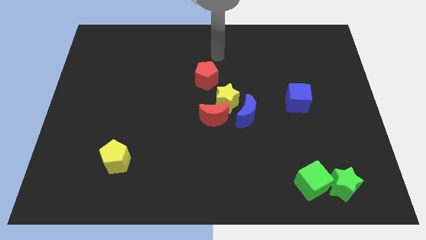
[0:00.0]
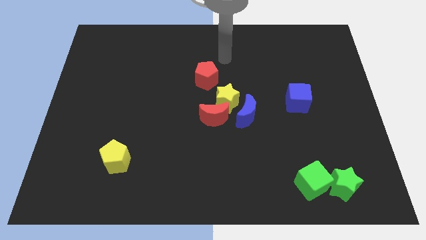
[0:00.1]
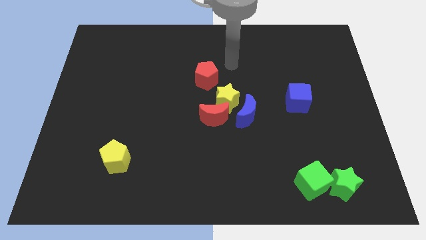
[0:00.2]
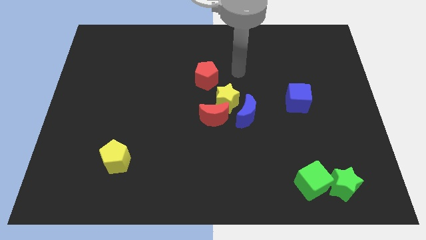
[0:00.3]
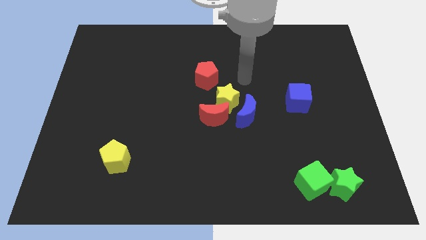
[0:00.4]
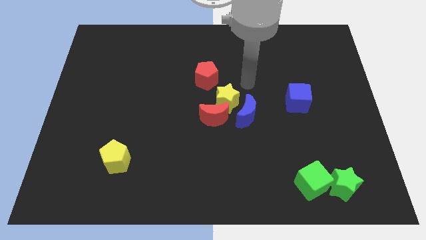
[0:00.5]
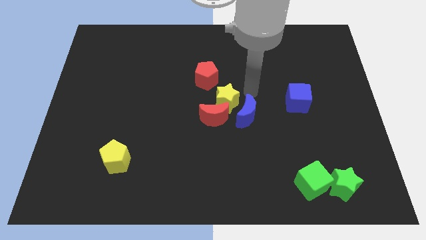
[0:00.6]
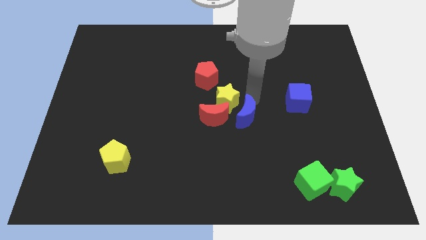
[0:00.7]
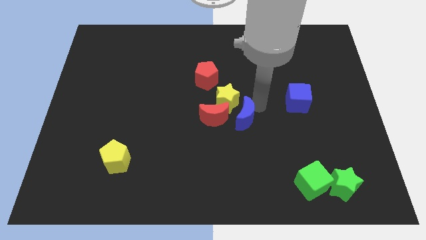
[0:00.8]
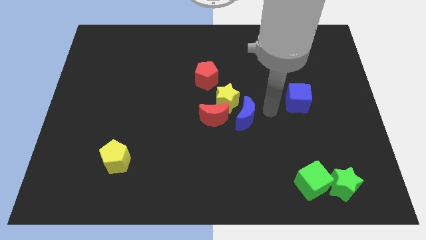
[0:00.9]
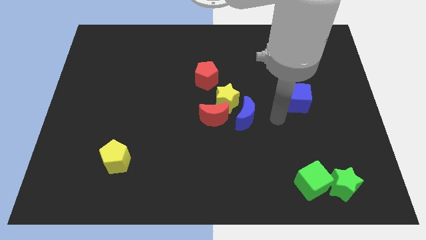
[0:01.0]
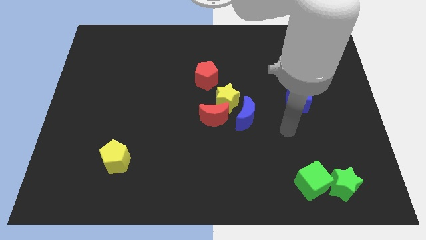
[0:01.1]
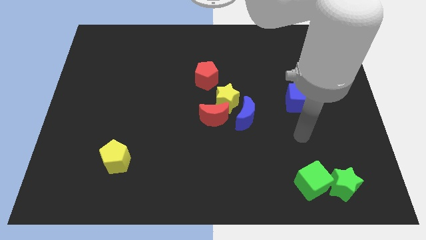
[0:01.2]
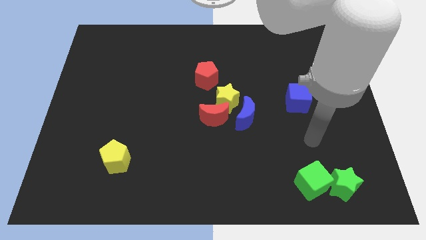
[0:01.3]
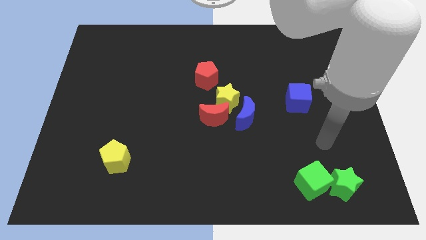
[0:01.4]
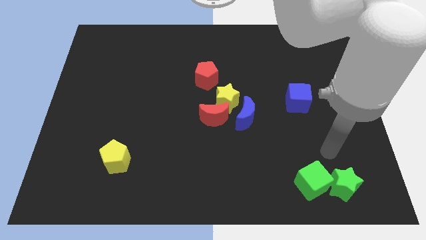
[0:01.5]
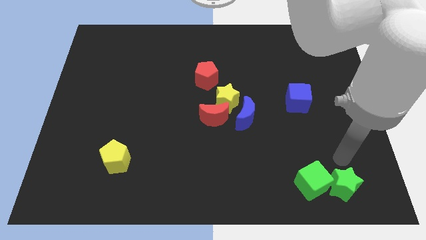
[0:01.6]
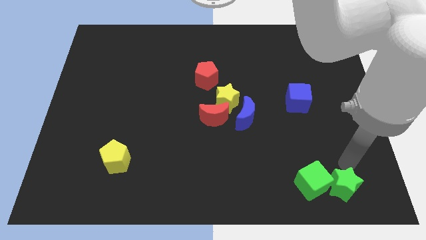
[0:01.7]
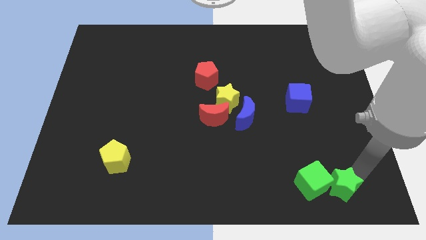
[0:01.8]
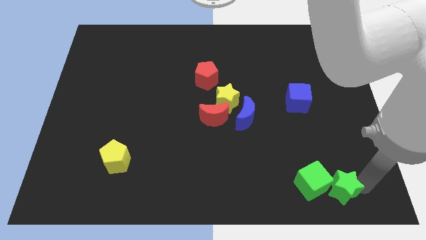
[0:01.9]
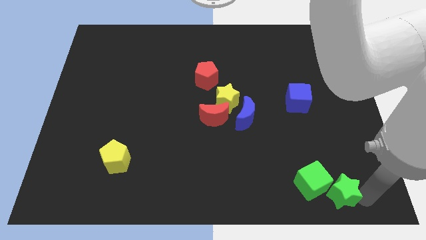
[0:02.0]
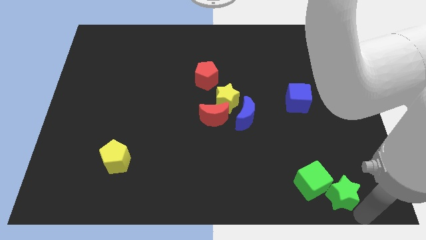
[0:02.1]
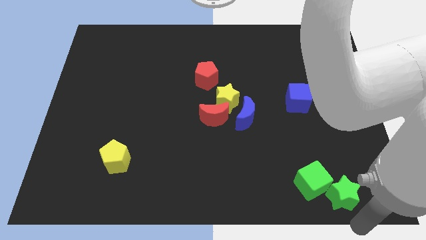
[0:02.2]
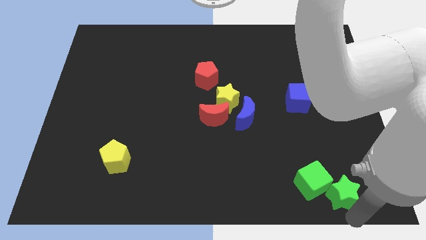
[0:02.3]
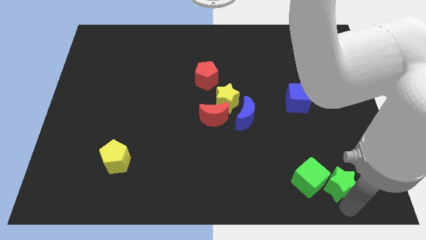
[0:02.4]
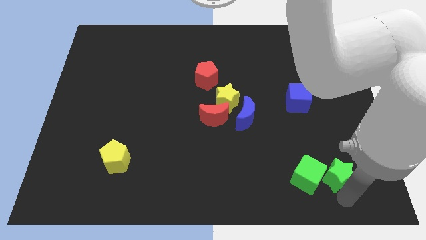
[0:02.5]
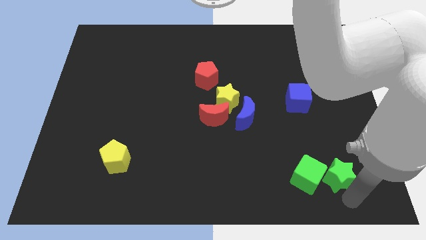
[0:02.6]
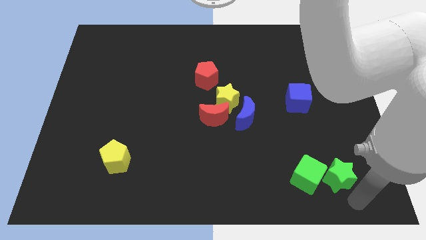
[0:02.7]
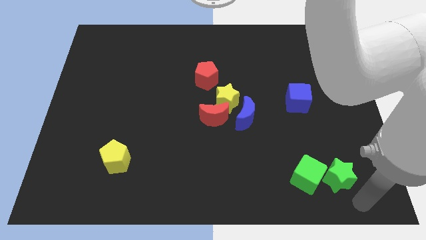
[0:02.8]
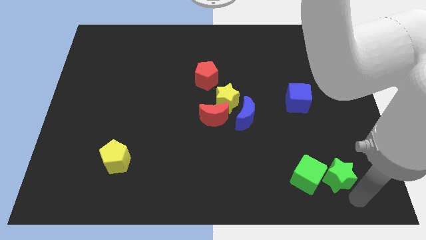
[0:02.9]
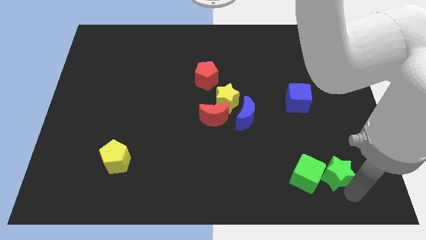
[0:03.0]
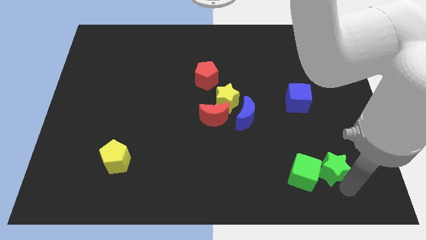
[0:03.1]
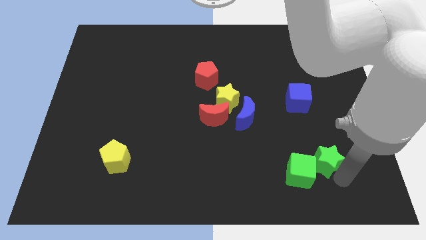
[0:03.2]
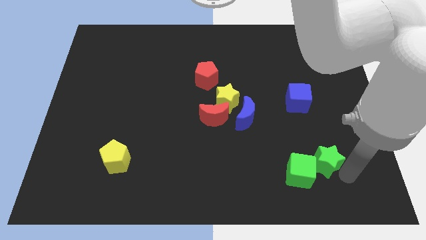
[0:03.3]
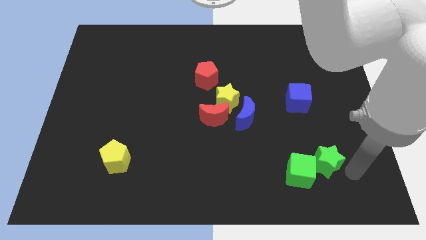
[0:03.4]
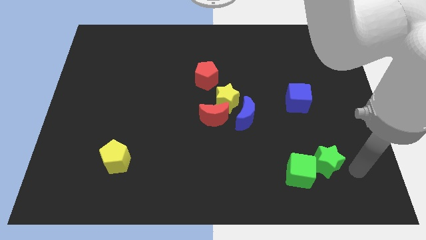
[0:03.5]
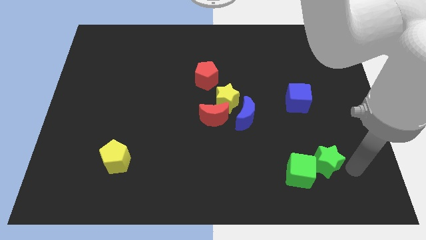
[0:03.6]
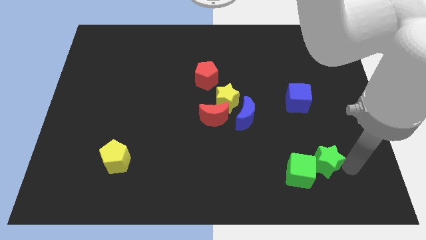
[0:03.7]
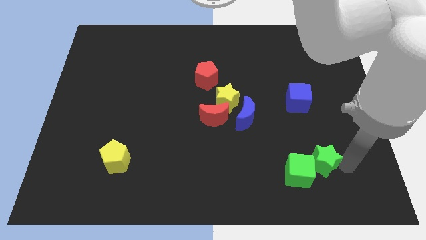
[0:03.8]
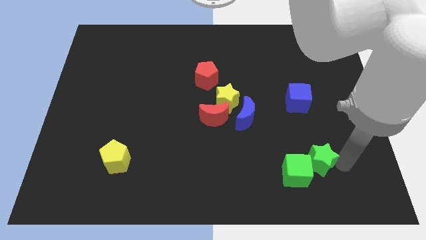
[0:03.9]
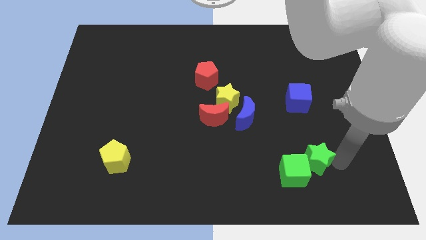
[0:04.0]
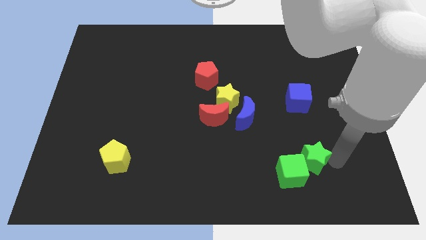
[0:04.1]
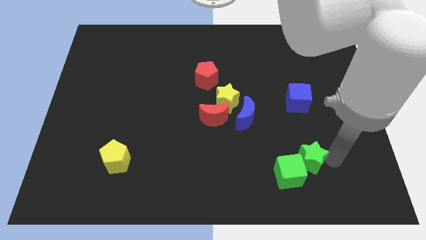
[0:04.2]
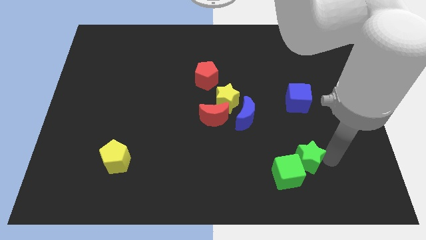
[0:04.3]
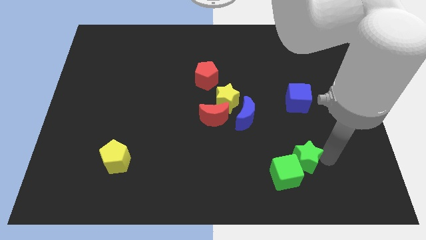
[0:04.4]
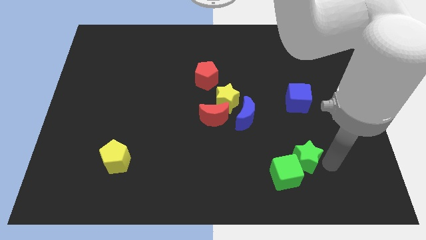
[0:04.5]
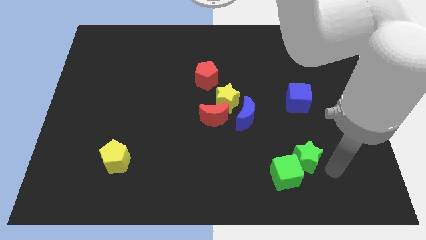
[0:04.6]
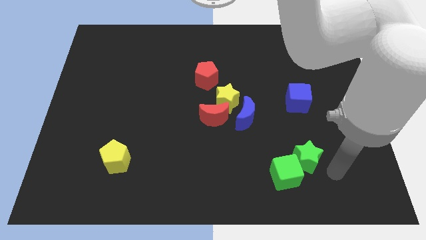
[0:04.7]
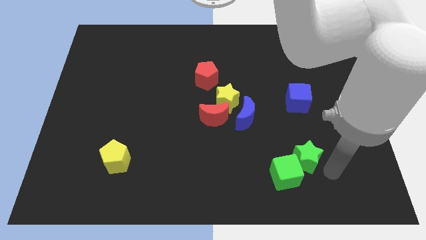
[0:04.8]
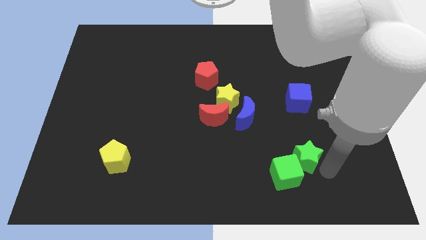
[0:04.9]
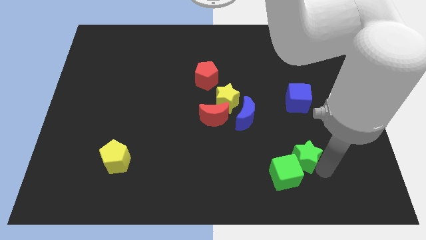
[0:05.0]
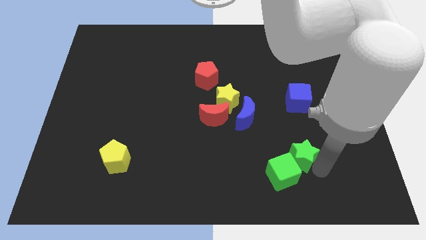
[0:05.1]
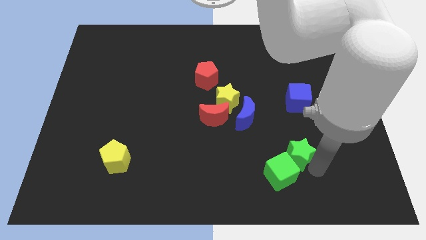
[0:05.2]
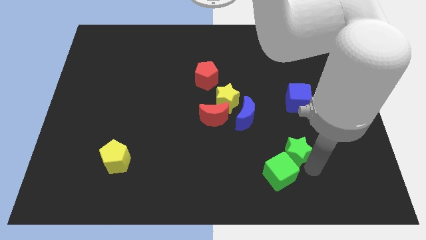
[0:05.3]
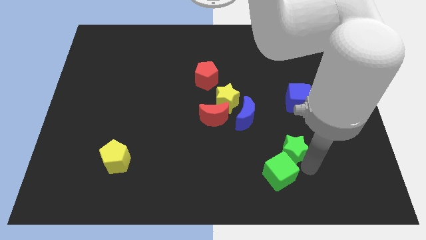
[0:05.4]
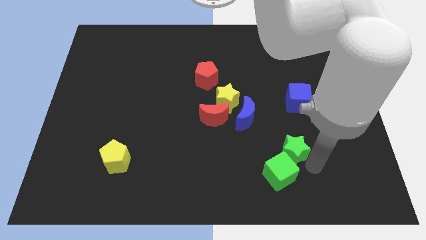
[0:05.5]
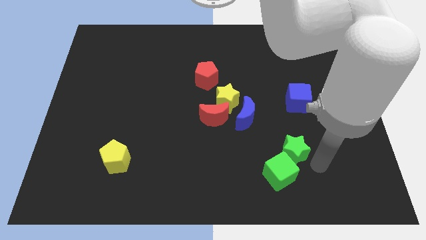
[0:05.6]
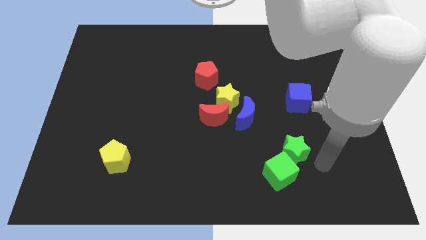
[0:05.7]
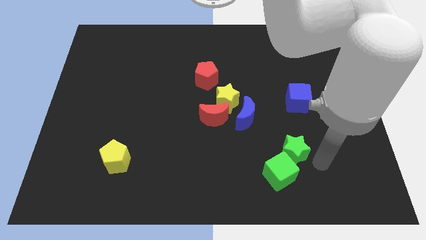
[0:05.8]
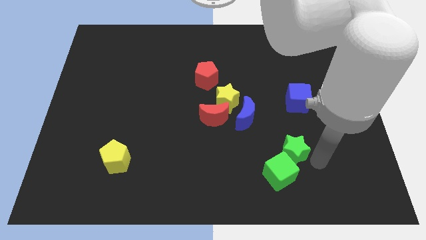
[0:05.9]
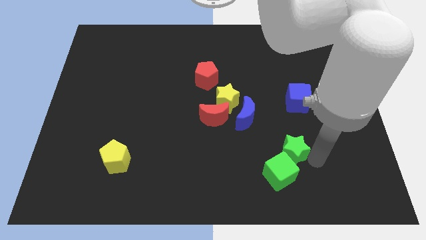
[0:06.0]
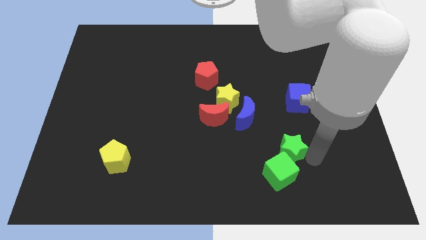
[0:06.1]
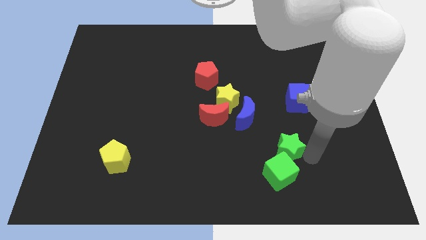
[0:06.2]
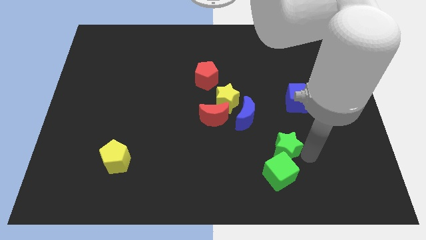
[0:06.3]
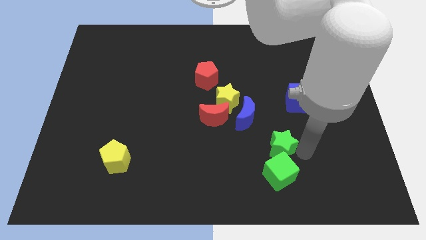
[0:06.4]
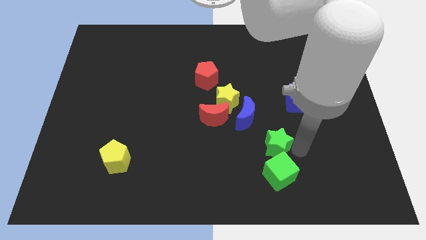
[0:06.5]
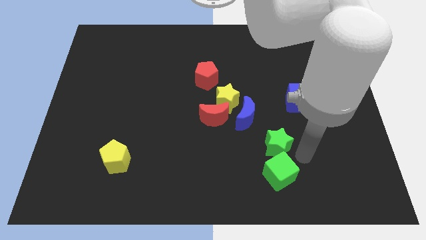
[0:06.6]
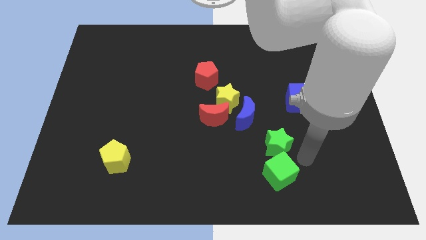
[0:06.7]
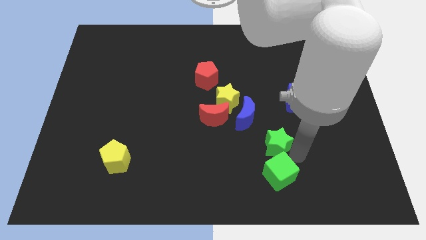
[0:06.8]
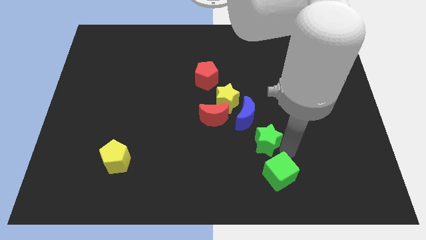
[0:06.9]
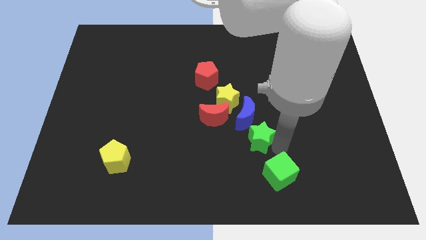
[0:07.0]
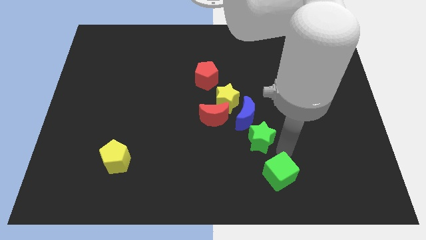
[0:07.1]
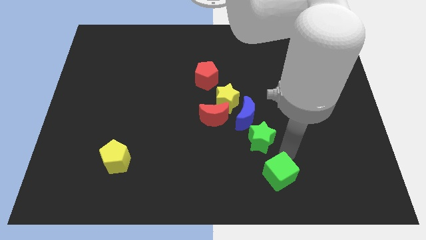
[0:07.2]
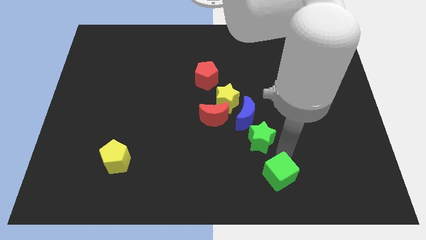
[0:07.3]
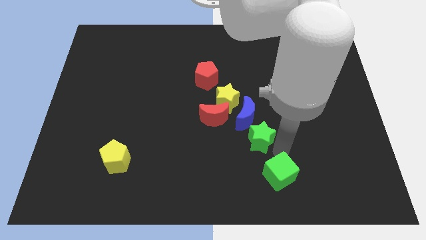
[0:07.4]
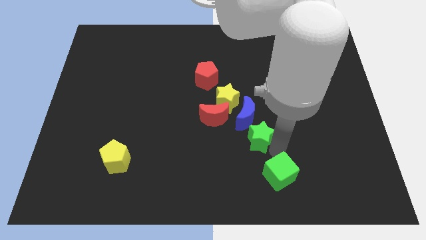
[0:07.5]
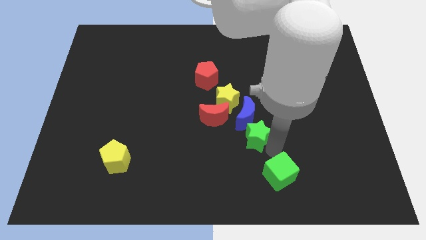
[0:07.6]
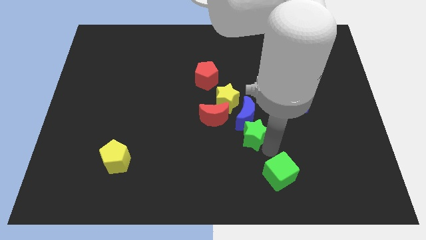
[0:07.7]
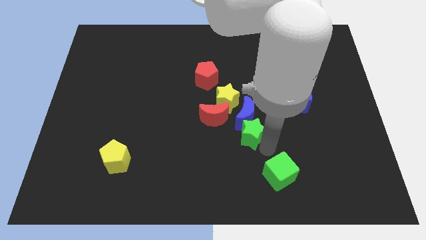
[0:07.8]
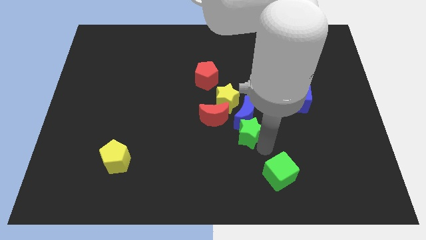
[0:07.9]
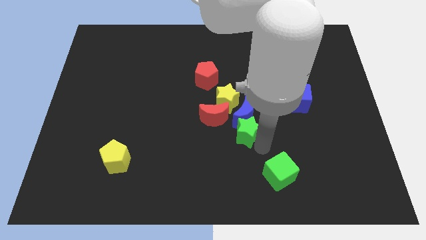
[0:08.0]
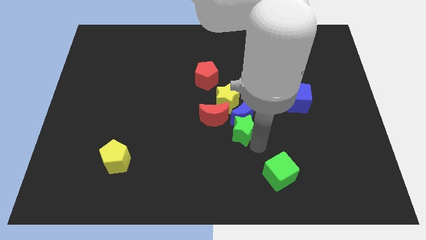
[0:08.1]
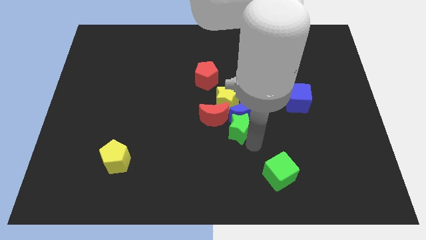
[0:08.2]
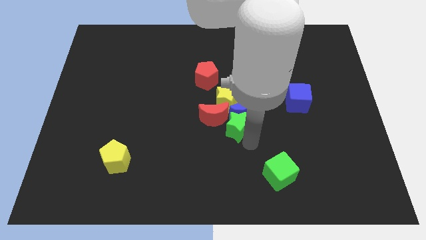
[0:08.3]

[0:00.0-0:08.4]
push the green star towards the red moon
